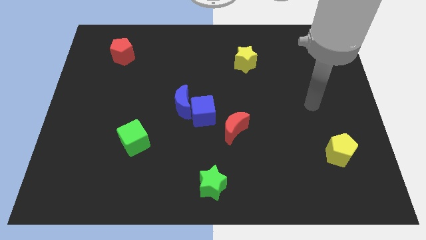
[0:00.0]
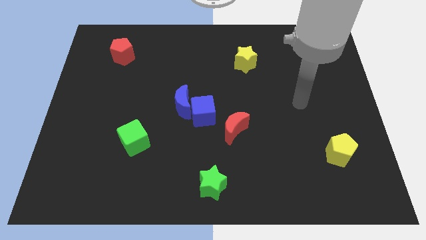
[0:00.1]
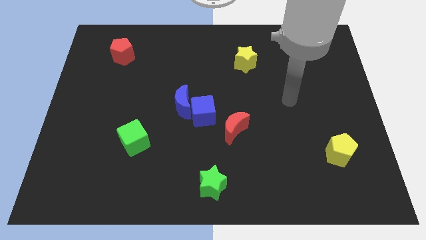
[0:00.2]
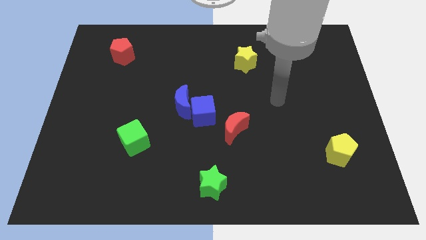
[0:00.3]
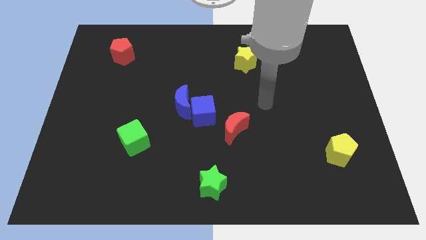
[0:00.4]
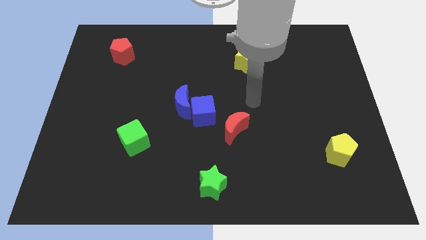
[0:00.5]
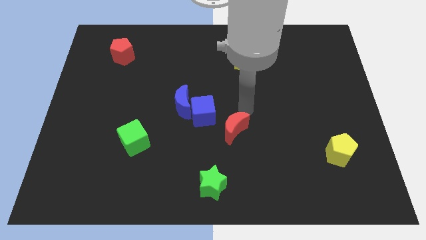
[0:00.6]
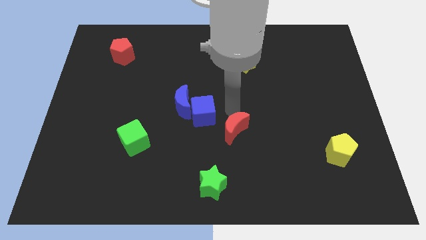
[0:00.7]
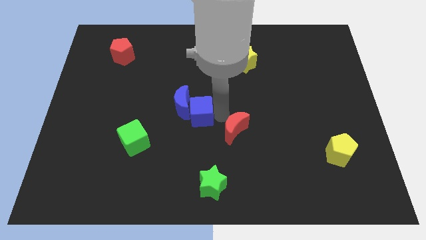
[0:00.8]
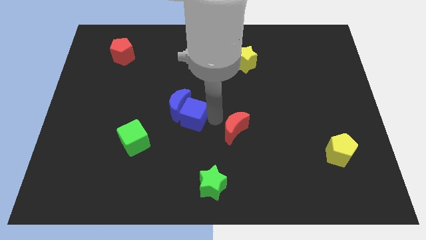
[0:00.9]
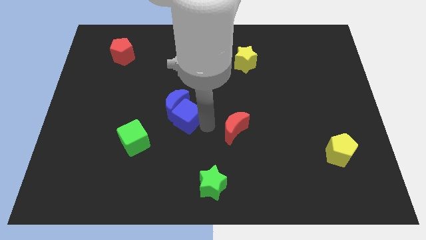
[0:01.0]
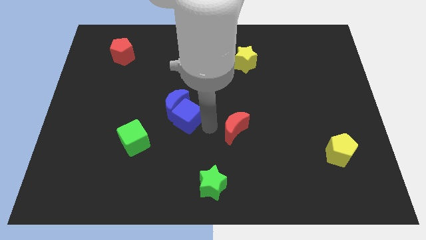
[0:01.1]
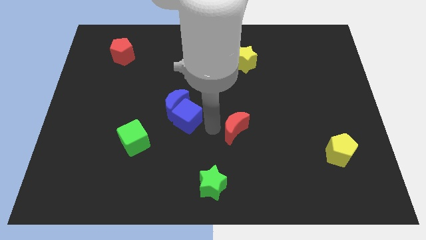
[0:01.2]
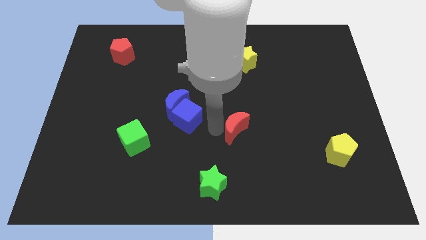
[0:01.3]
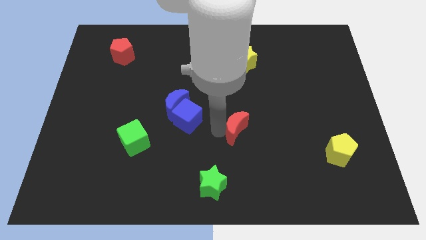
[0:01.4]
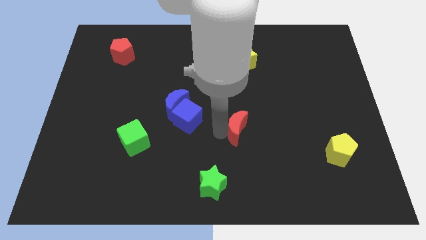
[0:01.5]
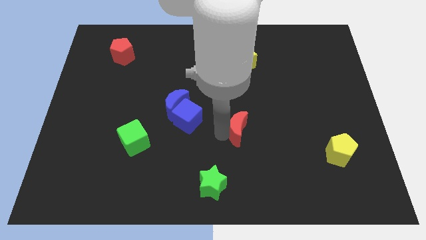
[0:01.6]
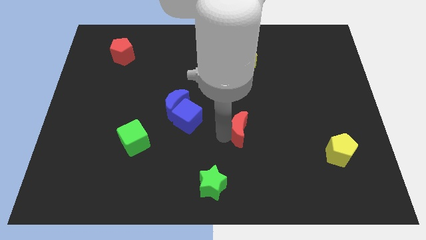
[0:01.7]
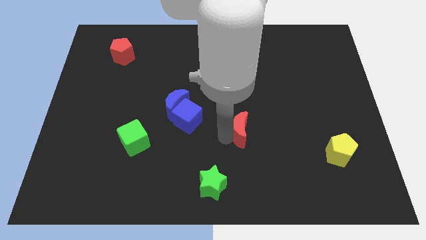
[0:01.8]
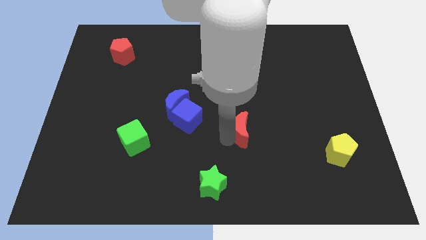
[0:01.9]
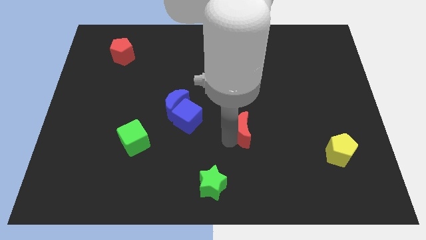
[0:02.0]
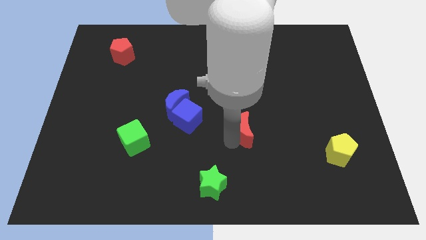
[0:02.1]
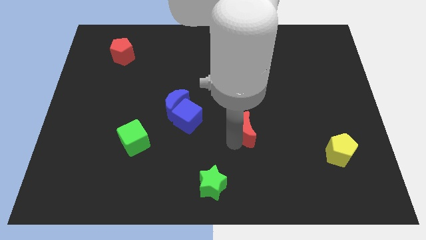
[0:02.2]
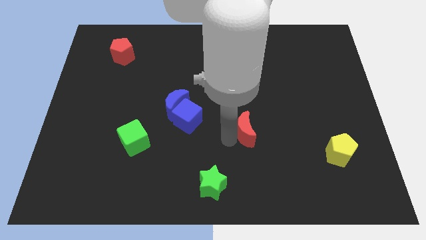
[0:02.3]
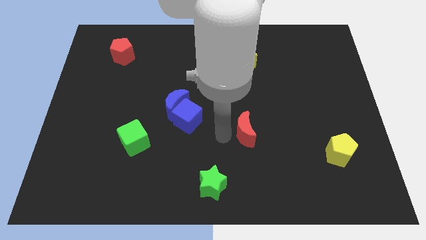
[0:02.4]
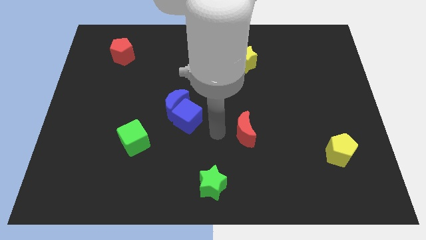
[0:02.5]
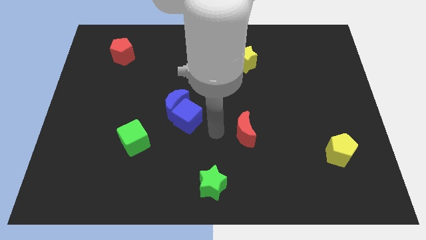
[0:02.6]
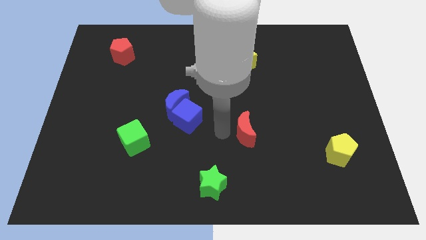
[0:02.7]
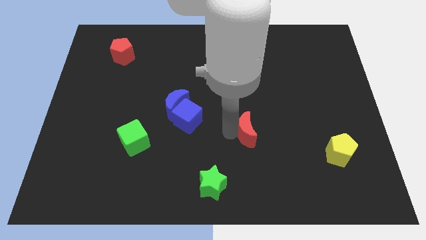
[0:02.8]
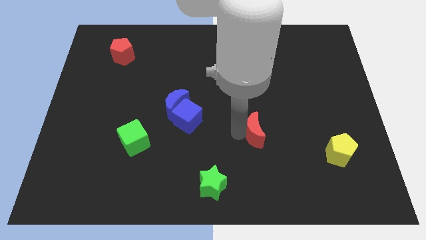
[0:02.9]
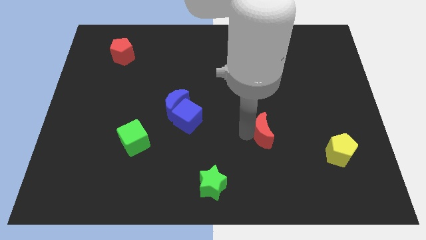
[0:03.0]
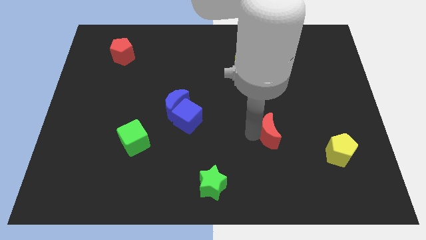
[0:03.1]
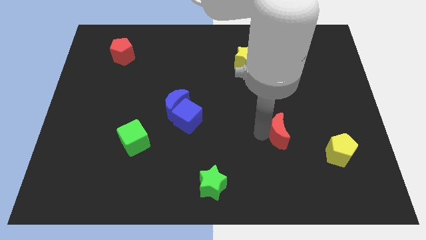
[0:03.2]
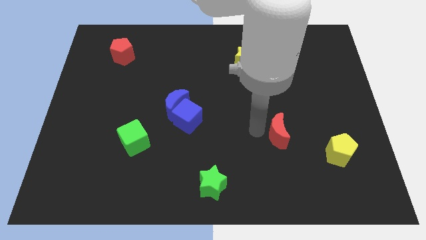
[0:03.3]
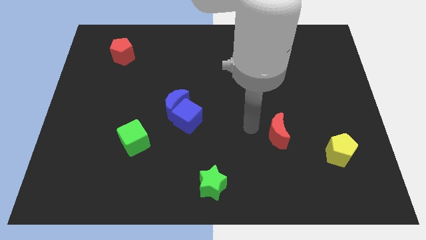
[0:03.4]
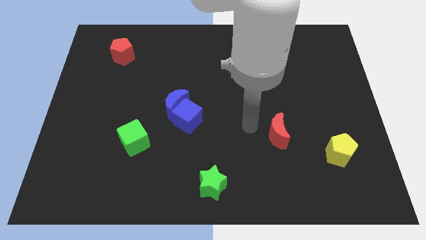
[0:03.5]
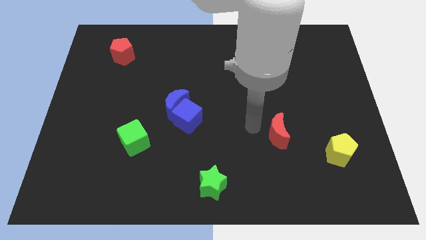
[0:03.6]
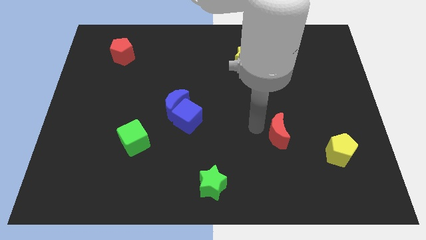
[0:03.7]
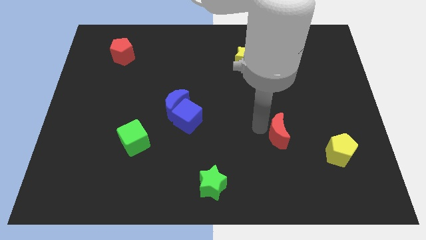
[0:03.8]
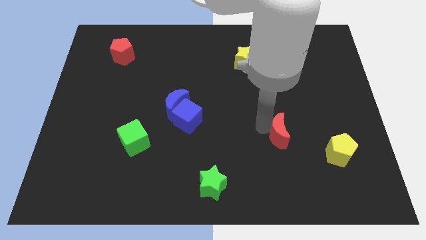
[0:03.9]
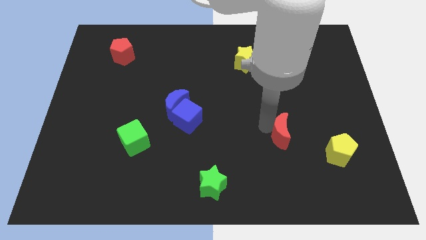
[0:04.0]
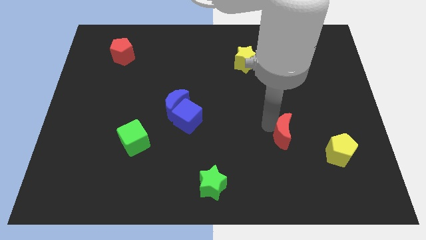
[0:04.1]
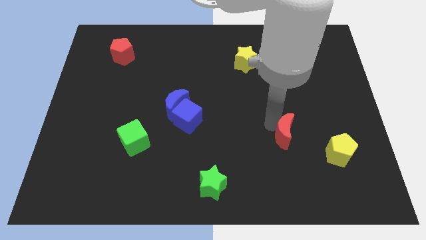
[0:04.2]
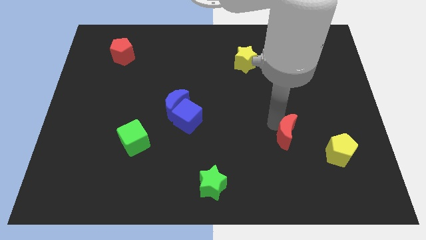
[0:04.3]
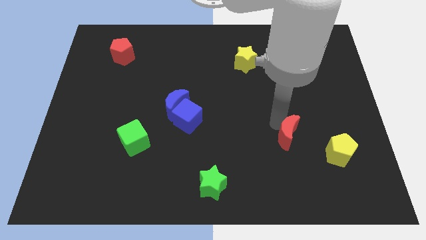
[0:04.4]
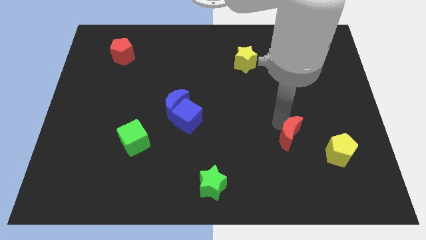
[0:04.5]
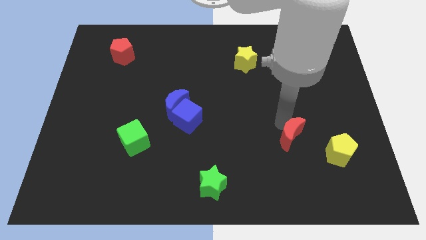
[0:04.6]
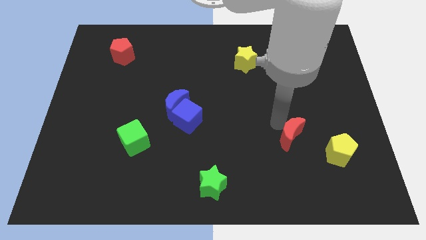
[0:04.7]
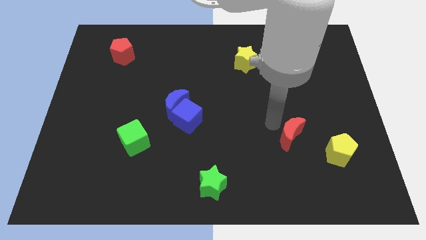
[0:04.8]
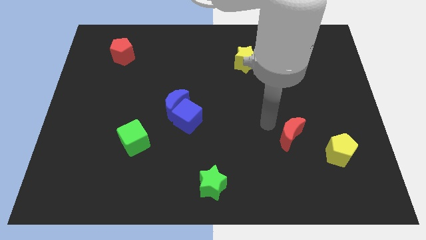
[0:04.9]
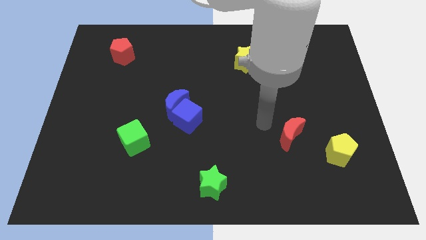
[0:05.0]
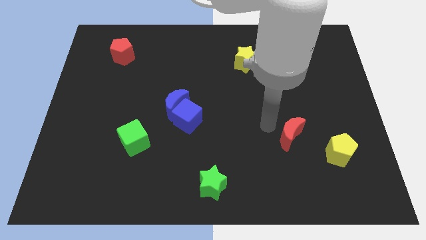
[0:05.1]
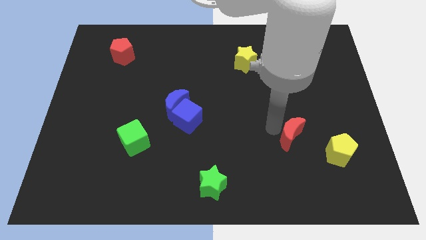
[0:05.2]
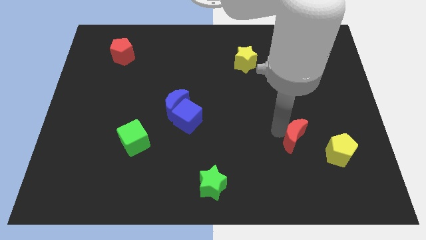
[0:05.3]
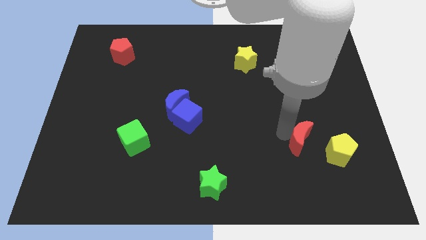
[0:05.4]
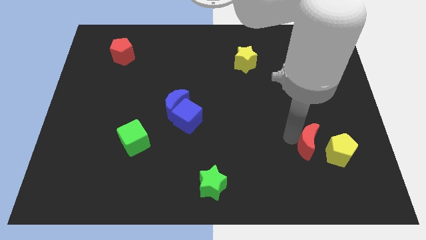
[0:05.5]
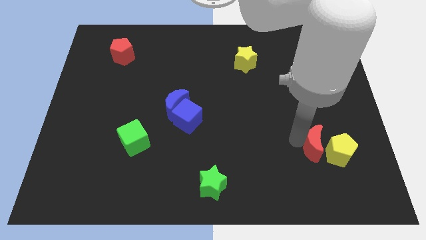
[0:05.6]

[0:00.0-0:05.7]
slide the red moon next to the yellow pentagon

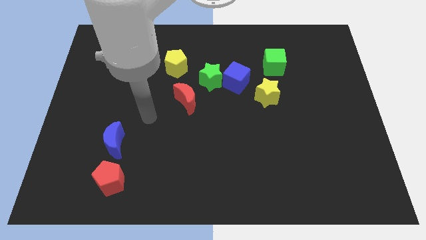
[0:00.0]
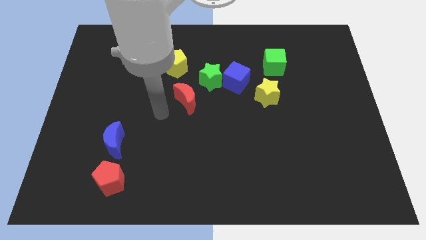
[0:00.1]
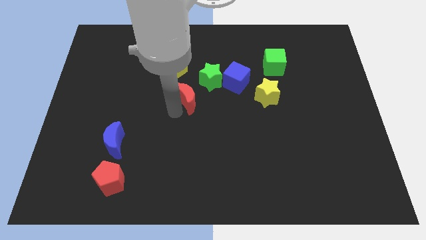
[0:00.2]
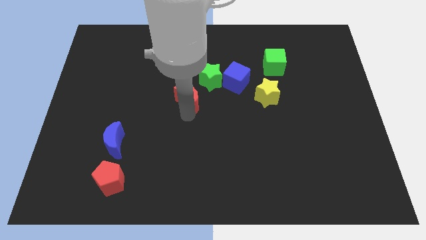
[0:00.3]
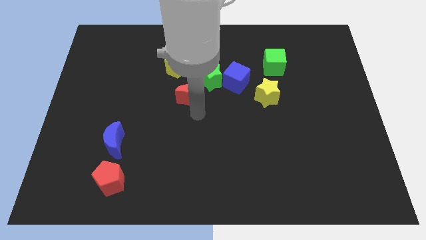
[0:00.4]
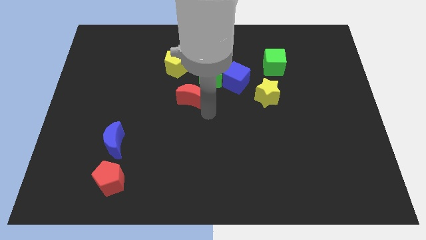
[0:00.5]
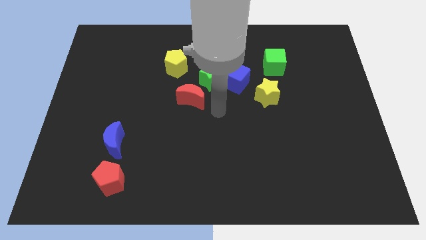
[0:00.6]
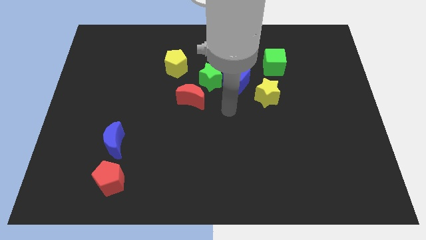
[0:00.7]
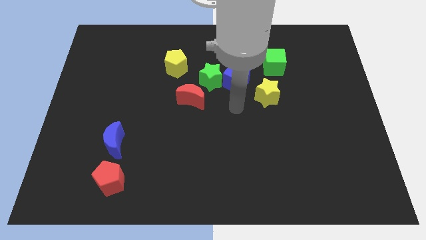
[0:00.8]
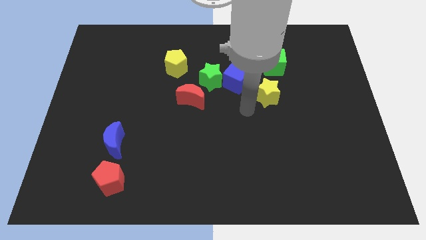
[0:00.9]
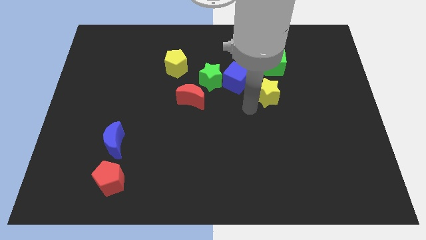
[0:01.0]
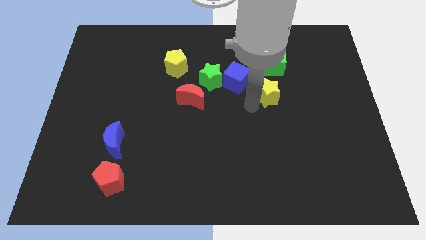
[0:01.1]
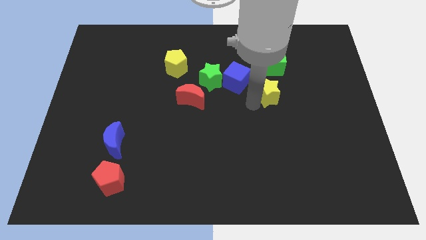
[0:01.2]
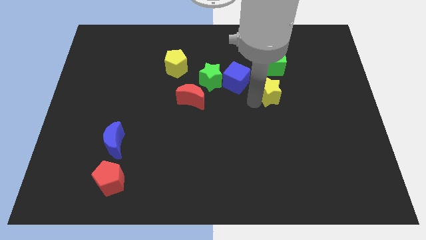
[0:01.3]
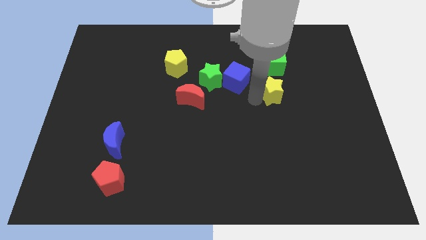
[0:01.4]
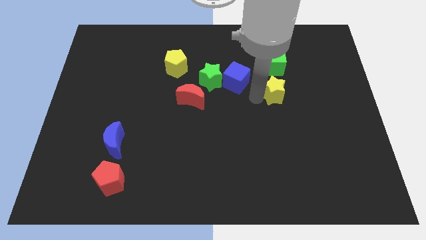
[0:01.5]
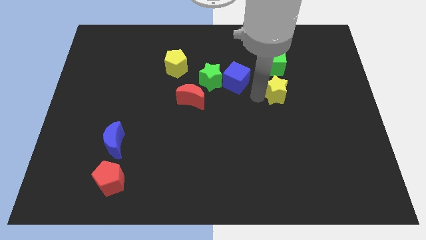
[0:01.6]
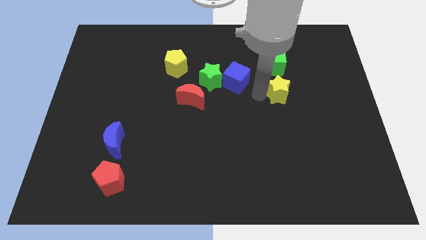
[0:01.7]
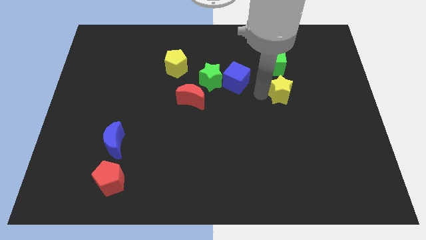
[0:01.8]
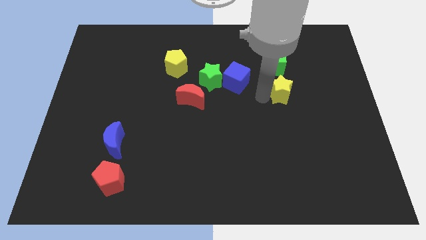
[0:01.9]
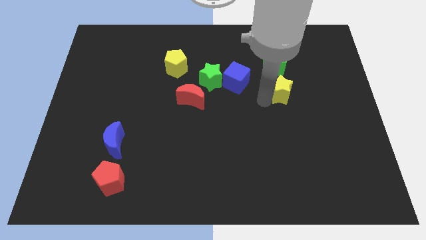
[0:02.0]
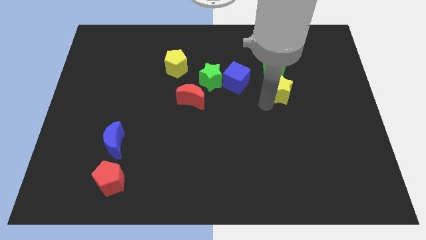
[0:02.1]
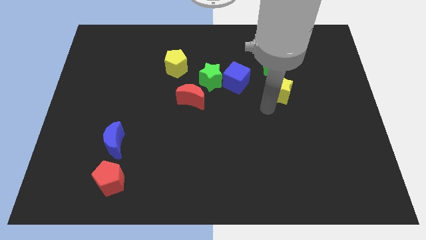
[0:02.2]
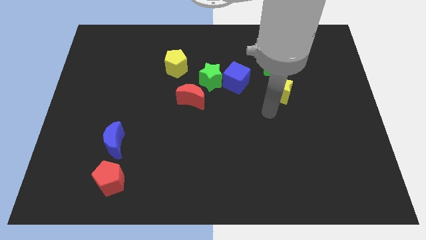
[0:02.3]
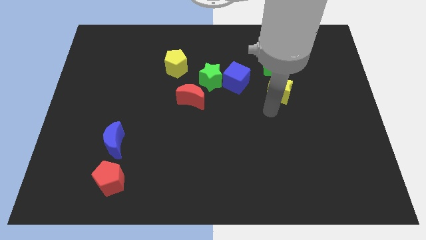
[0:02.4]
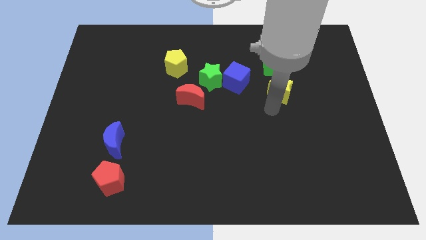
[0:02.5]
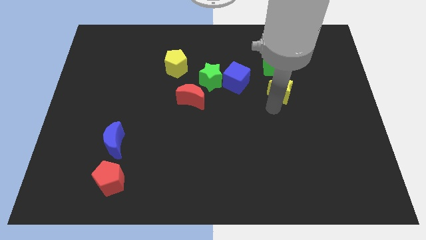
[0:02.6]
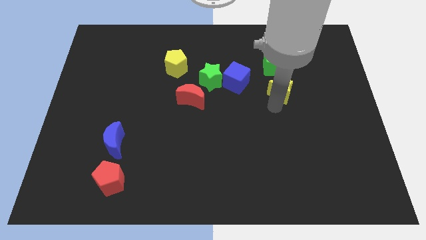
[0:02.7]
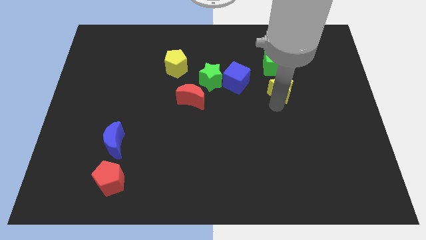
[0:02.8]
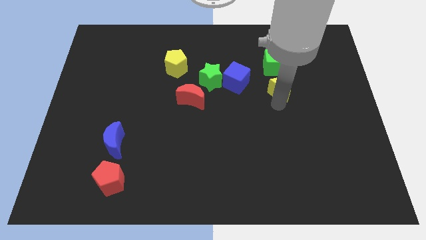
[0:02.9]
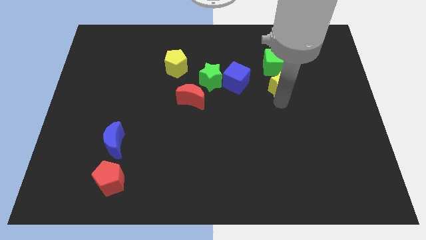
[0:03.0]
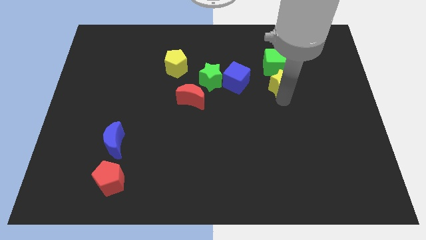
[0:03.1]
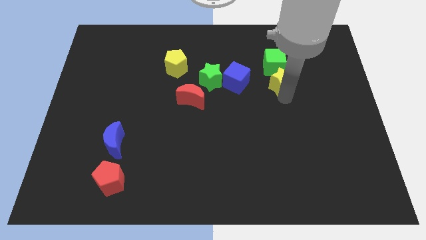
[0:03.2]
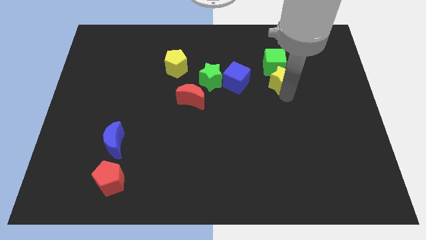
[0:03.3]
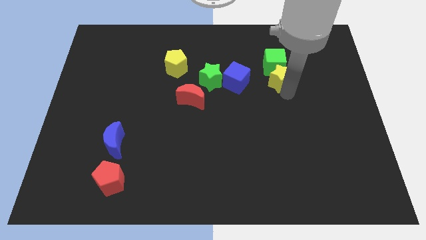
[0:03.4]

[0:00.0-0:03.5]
move the yellow star towards the green cube
